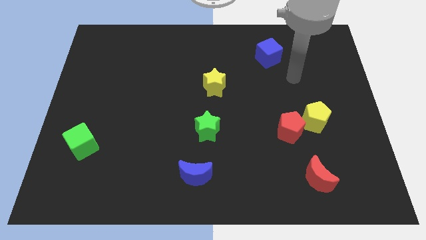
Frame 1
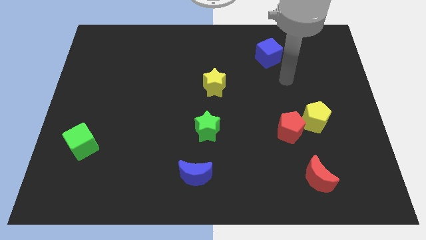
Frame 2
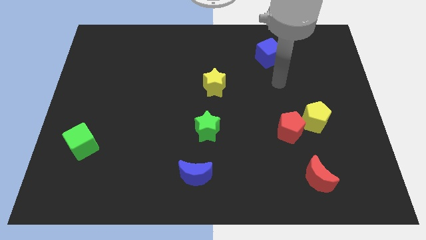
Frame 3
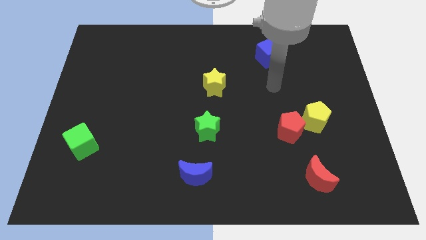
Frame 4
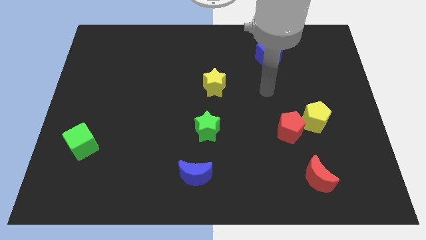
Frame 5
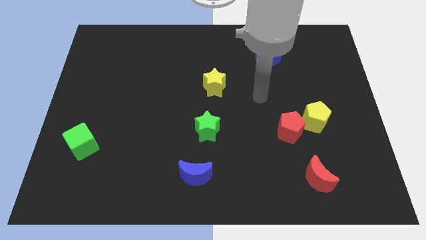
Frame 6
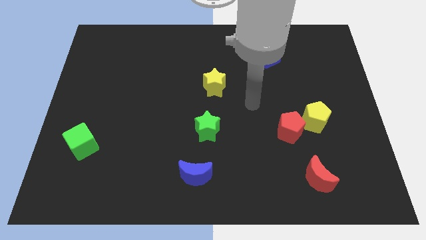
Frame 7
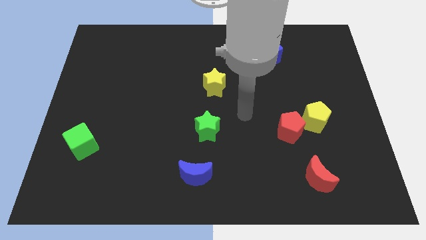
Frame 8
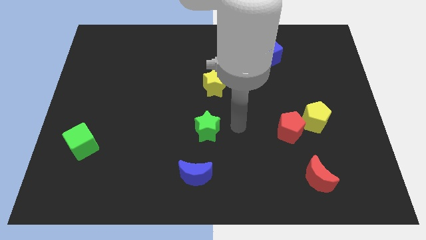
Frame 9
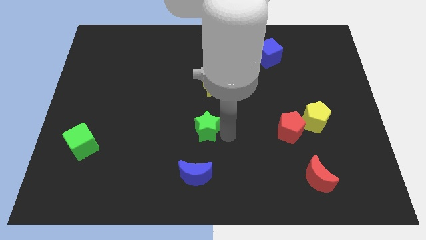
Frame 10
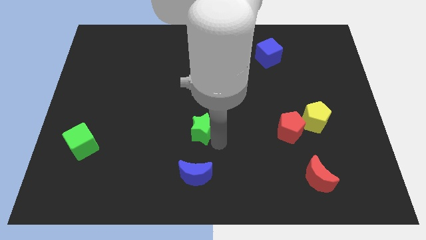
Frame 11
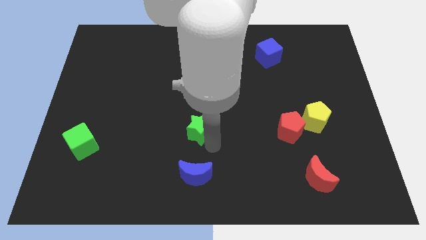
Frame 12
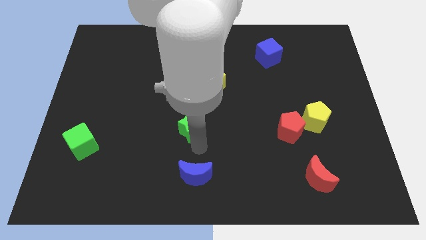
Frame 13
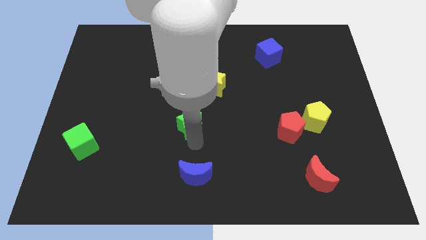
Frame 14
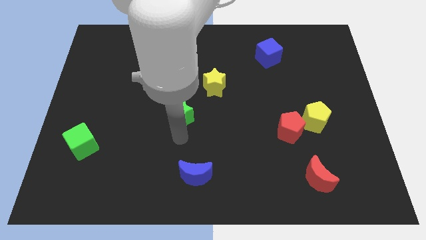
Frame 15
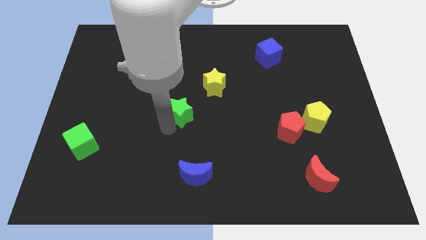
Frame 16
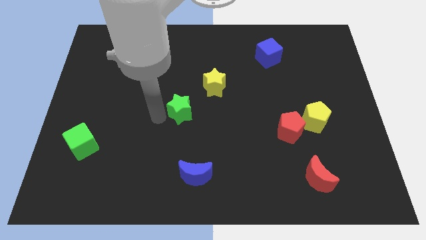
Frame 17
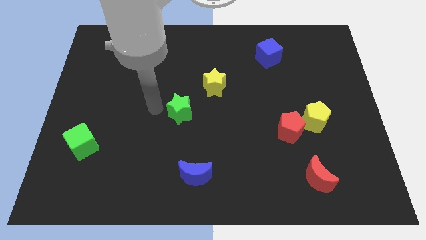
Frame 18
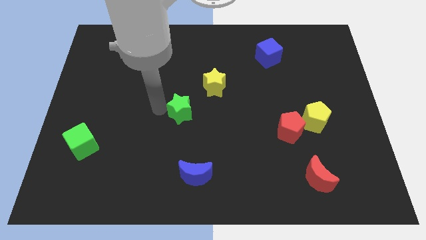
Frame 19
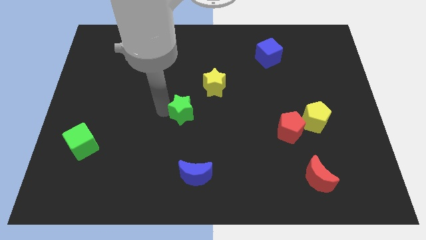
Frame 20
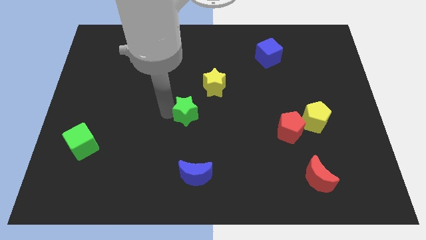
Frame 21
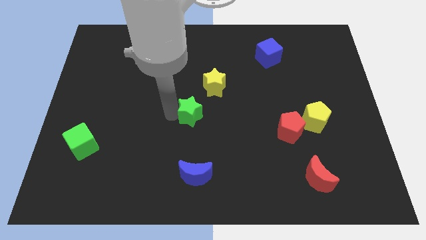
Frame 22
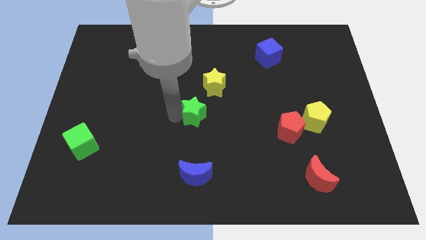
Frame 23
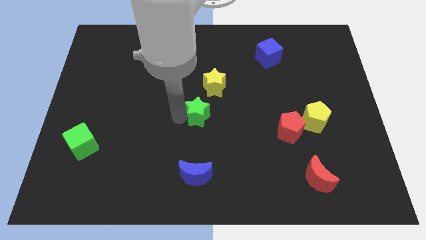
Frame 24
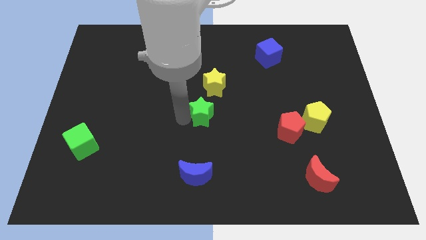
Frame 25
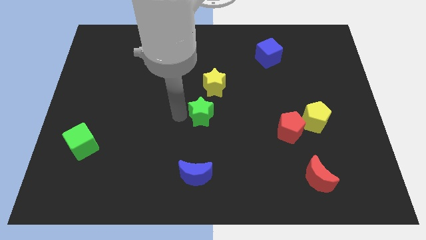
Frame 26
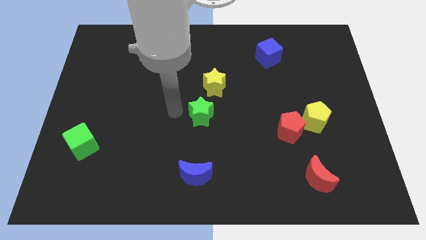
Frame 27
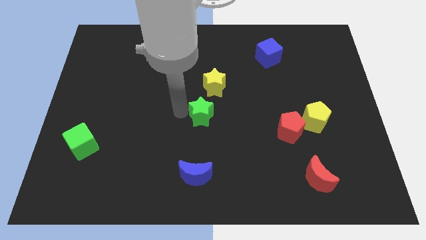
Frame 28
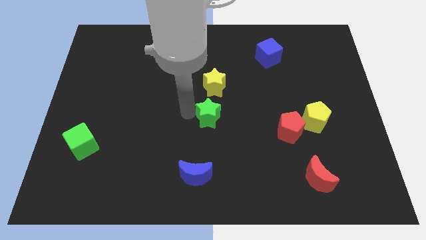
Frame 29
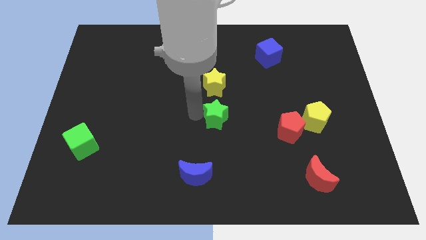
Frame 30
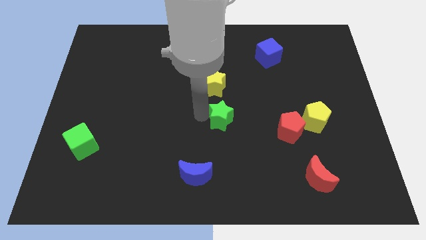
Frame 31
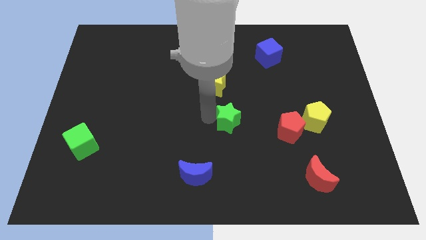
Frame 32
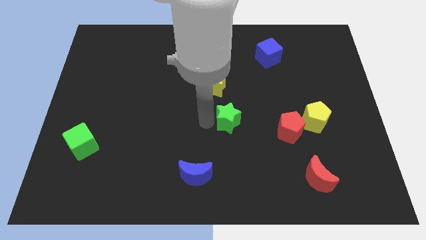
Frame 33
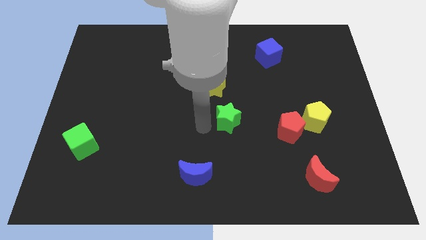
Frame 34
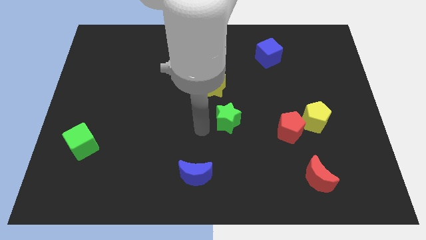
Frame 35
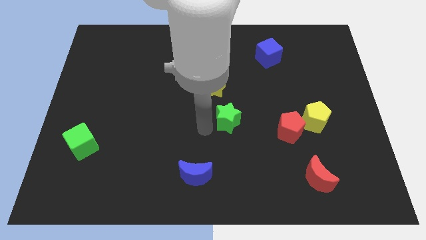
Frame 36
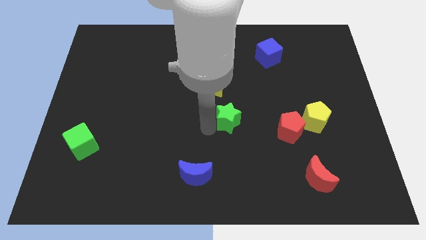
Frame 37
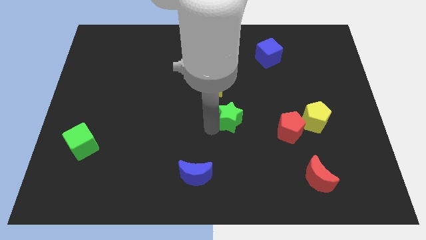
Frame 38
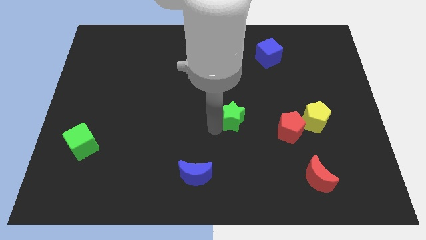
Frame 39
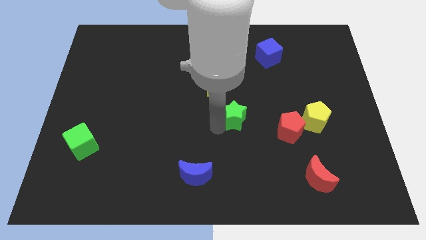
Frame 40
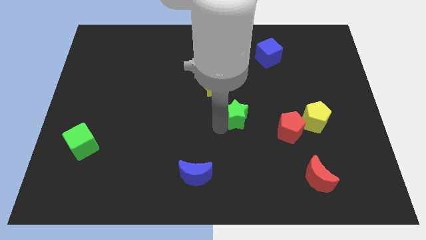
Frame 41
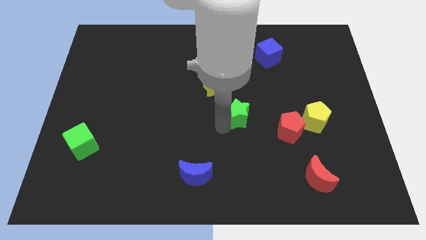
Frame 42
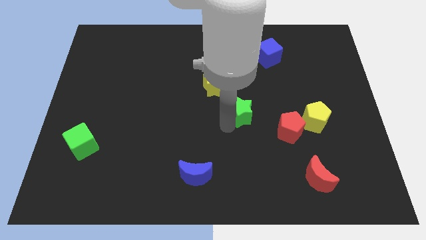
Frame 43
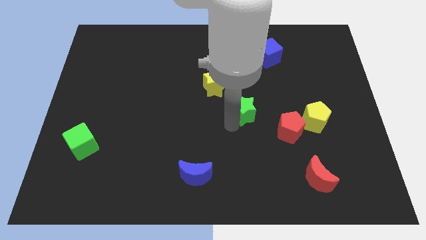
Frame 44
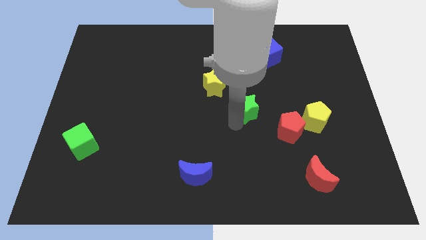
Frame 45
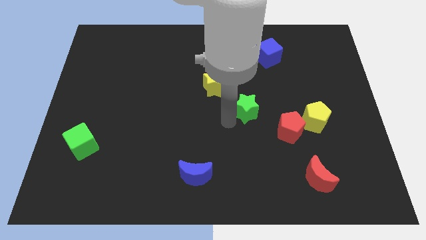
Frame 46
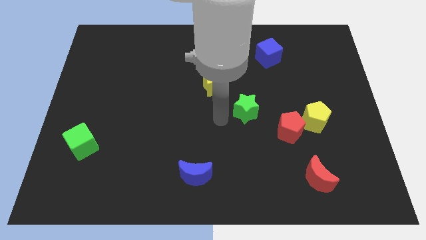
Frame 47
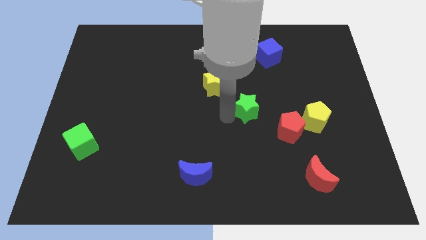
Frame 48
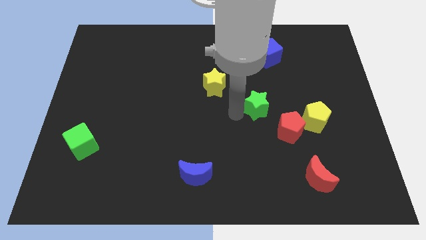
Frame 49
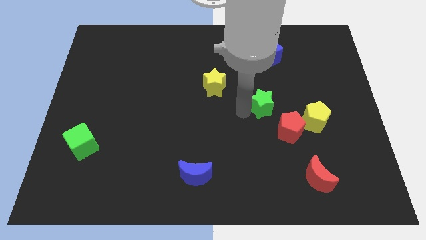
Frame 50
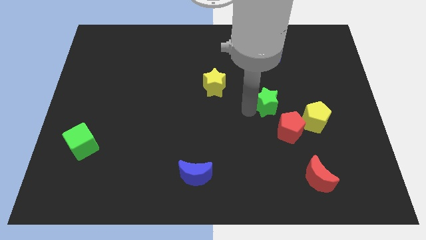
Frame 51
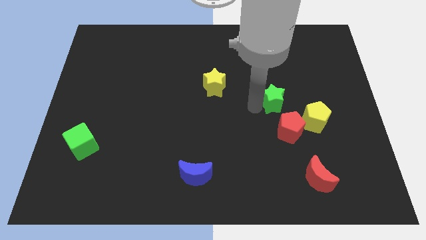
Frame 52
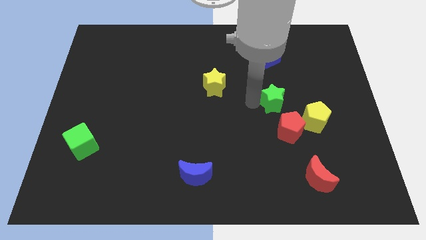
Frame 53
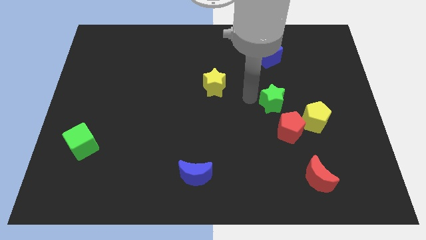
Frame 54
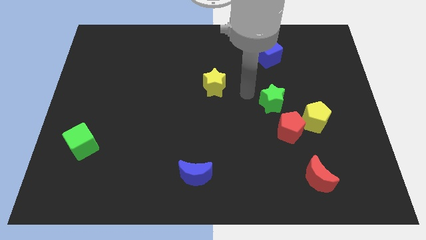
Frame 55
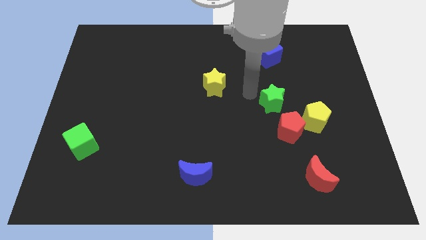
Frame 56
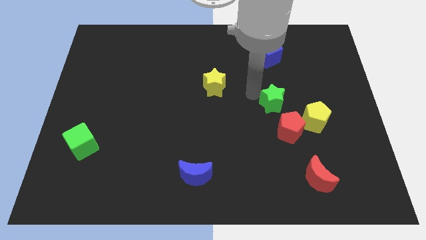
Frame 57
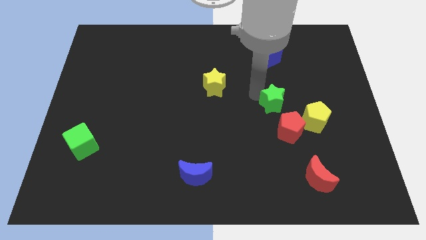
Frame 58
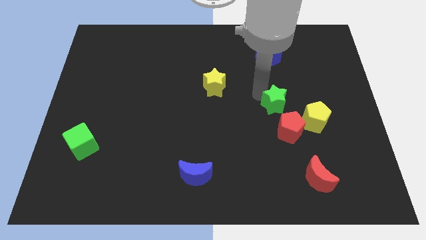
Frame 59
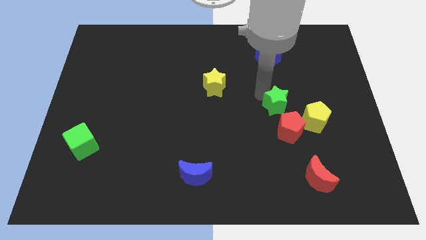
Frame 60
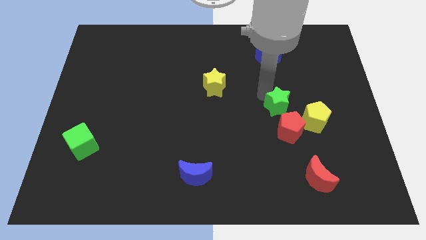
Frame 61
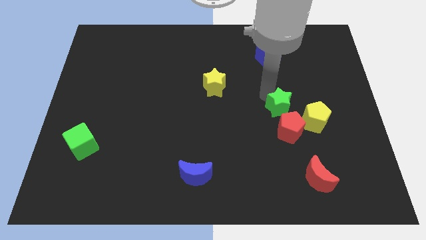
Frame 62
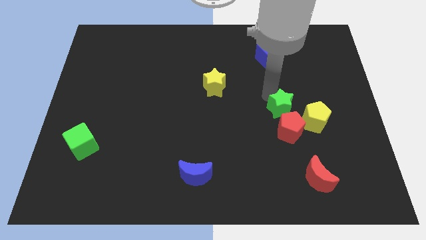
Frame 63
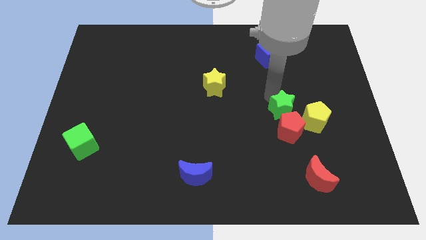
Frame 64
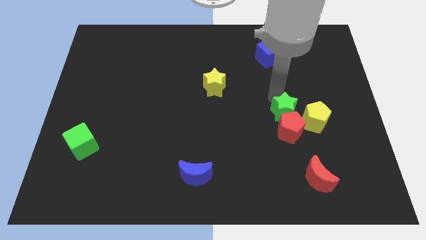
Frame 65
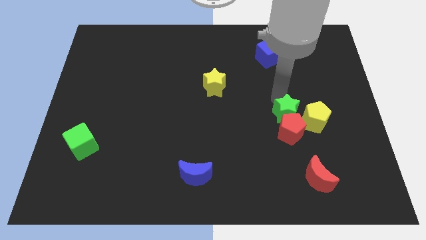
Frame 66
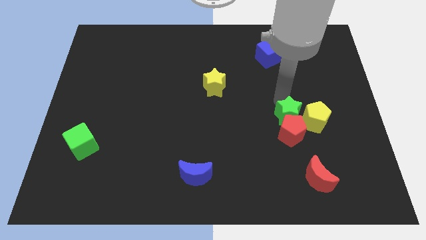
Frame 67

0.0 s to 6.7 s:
slide the green star to the yellow pentagon
